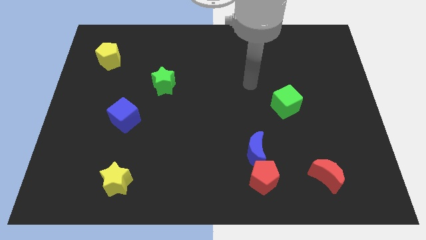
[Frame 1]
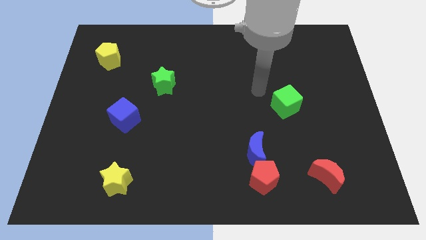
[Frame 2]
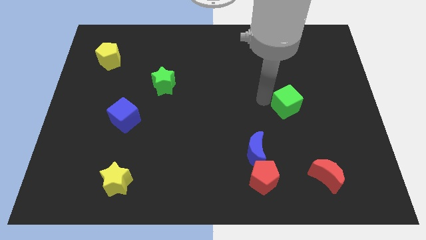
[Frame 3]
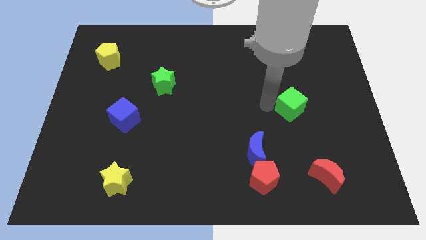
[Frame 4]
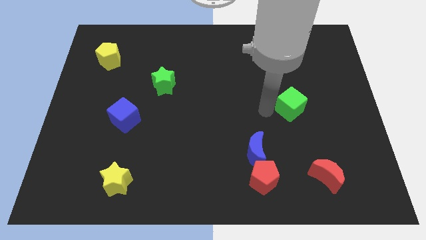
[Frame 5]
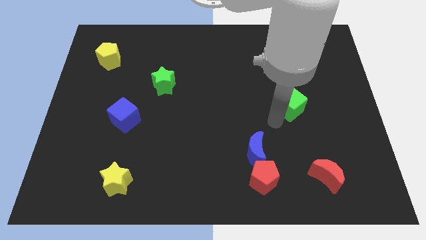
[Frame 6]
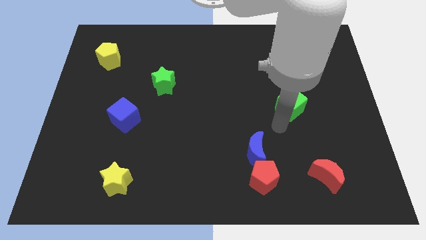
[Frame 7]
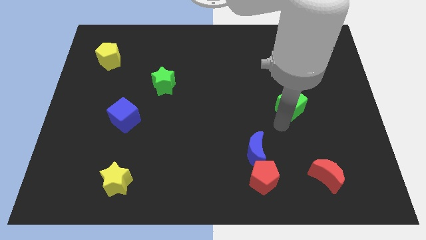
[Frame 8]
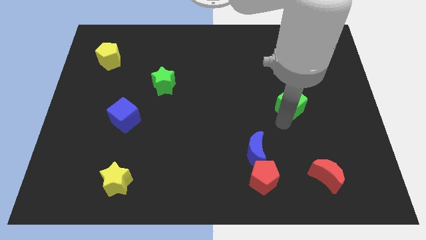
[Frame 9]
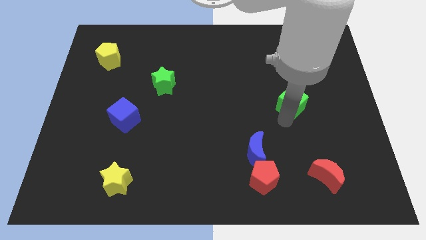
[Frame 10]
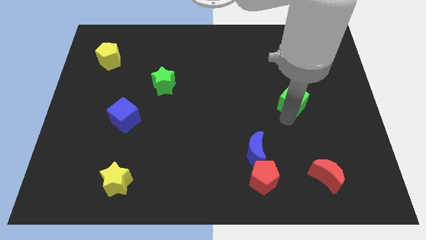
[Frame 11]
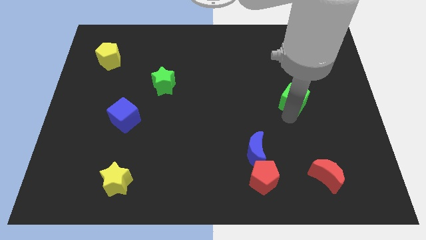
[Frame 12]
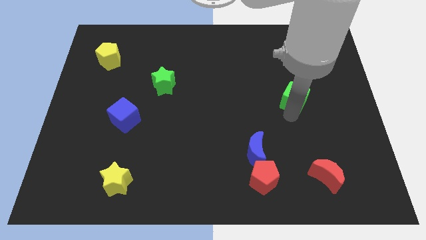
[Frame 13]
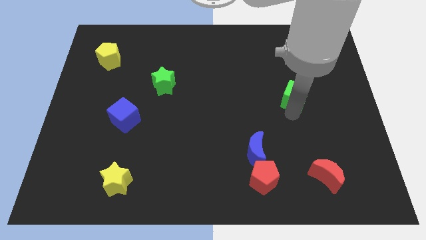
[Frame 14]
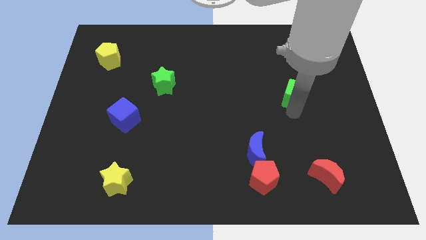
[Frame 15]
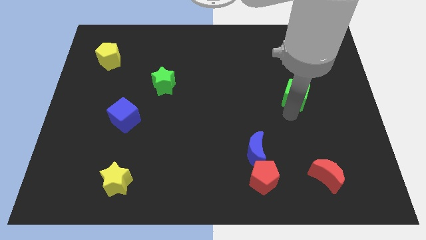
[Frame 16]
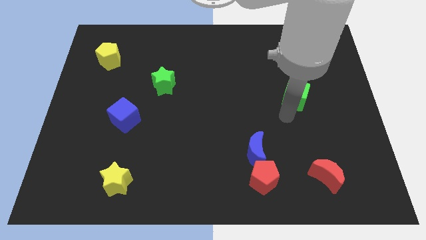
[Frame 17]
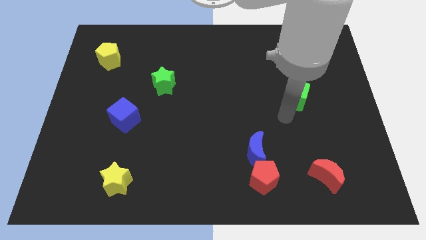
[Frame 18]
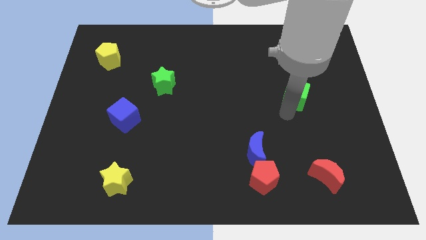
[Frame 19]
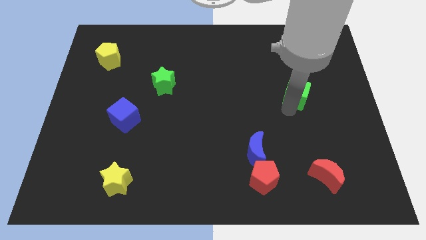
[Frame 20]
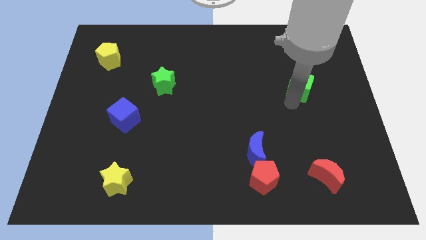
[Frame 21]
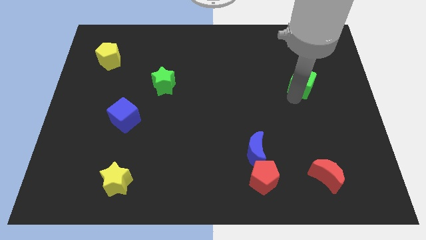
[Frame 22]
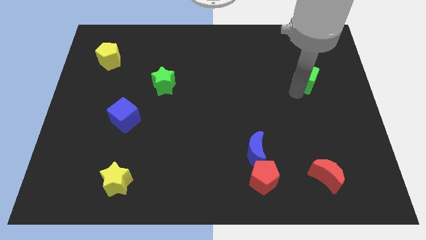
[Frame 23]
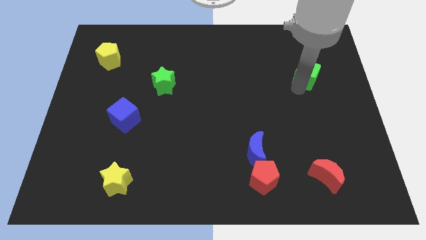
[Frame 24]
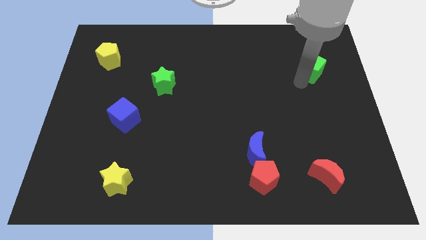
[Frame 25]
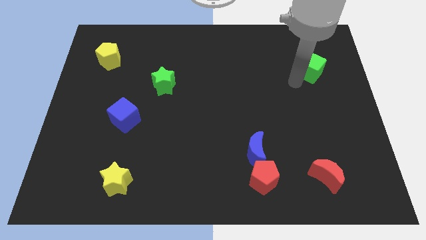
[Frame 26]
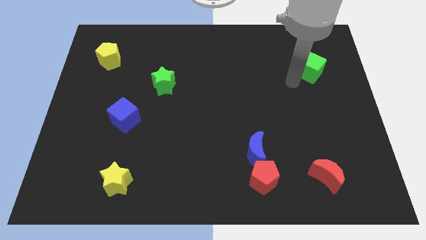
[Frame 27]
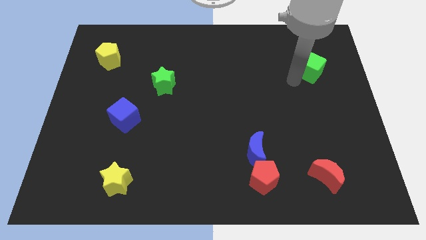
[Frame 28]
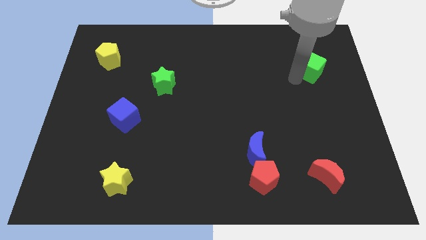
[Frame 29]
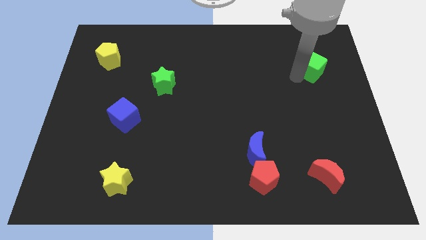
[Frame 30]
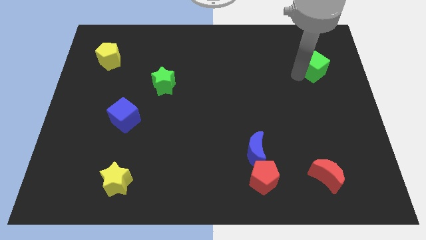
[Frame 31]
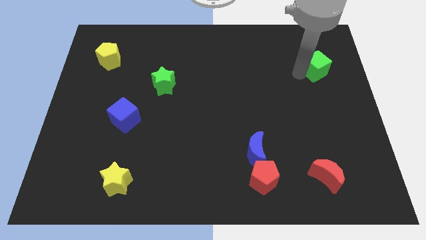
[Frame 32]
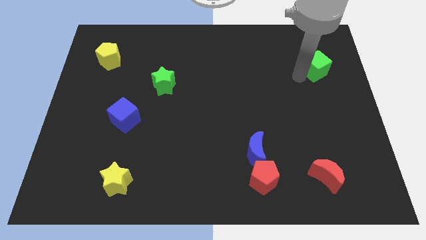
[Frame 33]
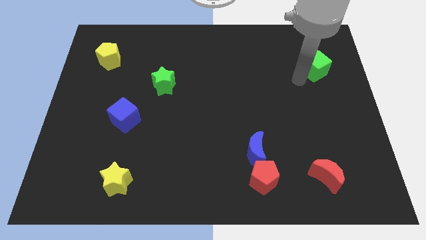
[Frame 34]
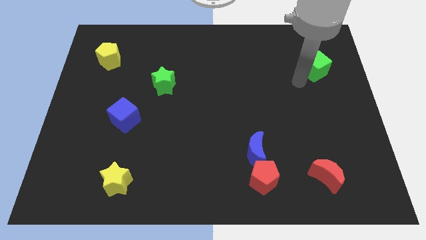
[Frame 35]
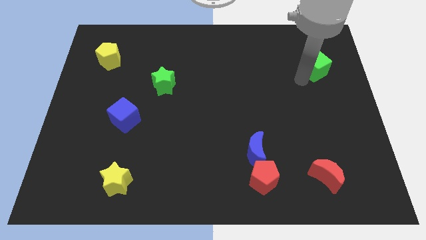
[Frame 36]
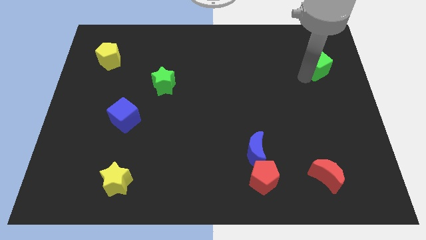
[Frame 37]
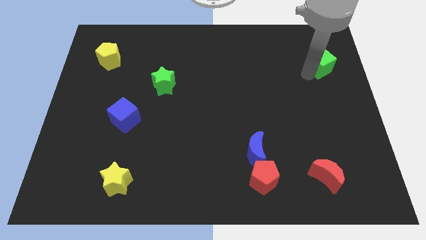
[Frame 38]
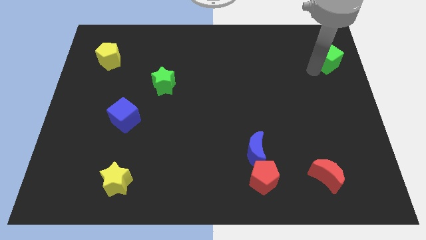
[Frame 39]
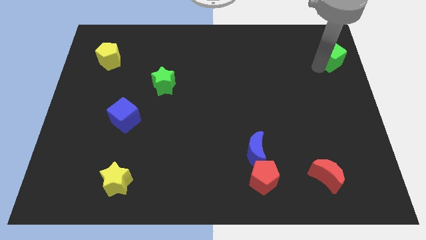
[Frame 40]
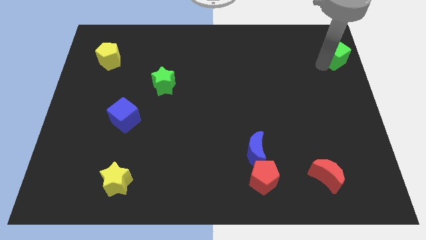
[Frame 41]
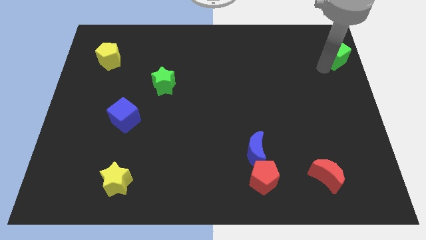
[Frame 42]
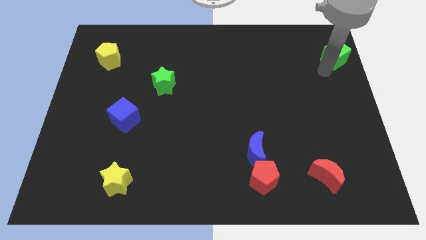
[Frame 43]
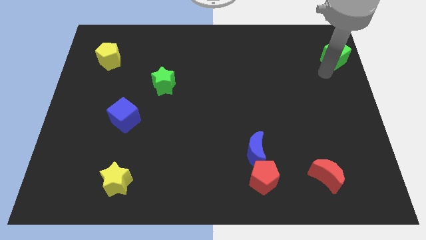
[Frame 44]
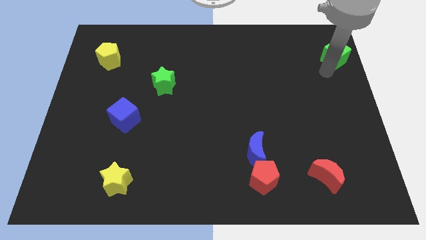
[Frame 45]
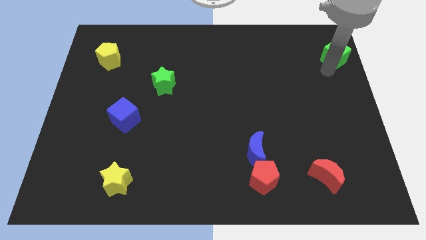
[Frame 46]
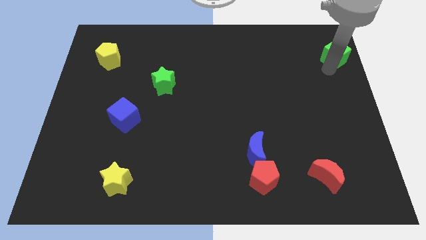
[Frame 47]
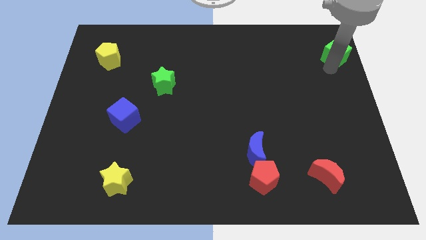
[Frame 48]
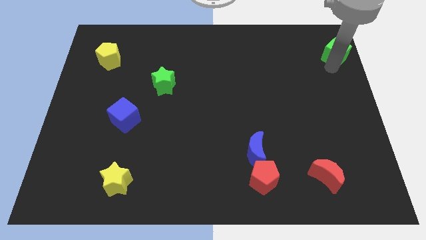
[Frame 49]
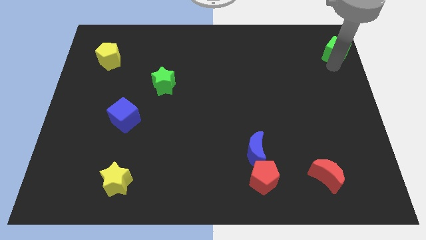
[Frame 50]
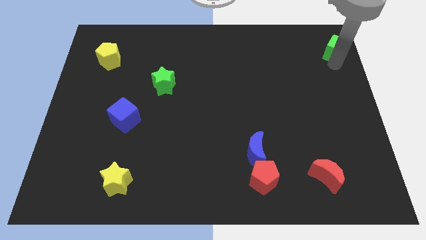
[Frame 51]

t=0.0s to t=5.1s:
slide the green cube to the top right corner

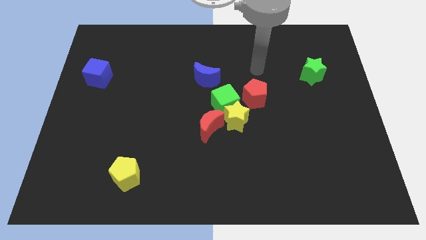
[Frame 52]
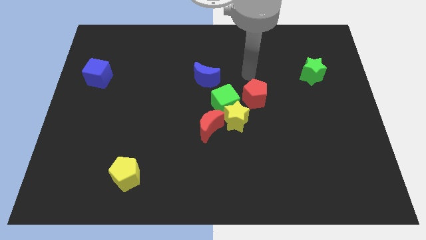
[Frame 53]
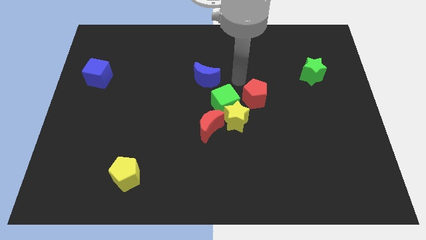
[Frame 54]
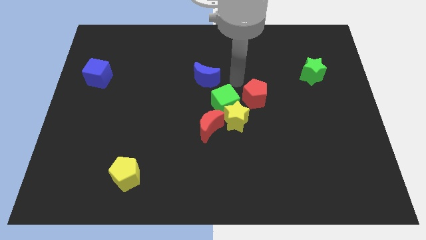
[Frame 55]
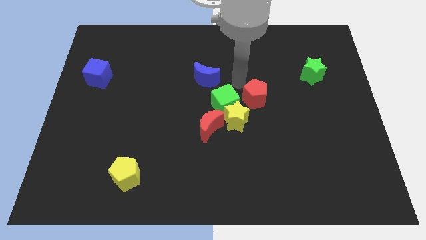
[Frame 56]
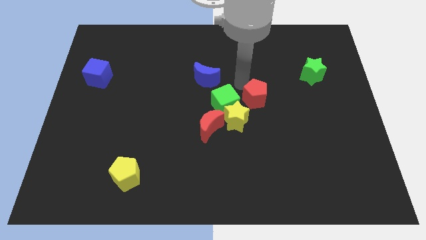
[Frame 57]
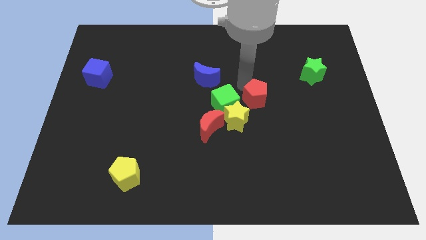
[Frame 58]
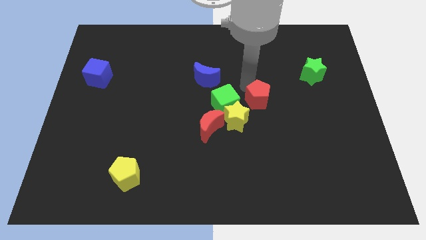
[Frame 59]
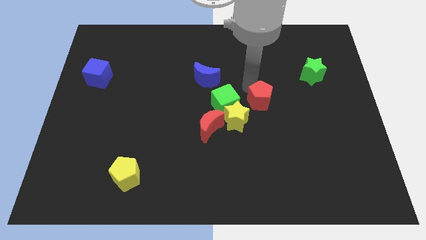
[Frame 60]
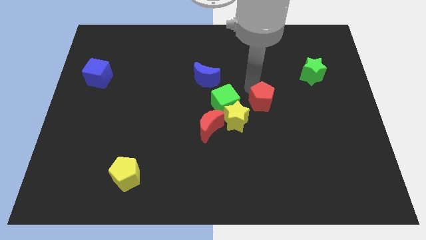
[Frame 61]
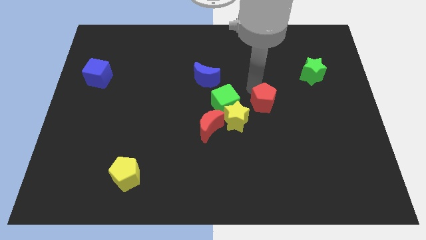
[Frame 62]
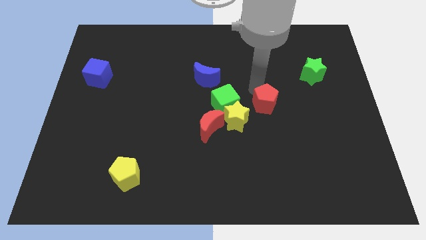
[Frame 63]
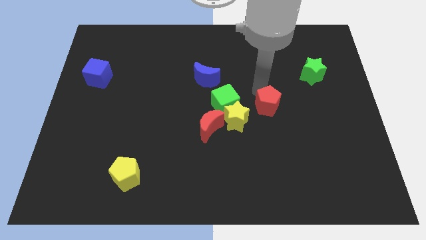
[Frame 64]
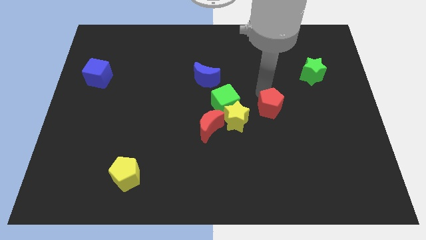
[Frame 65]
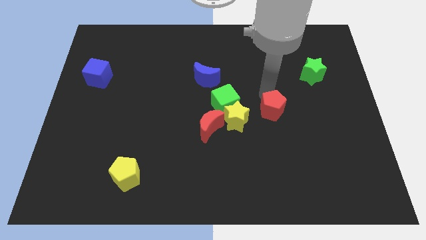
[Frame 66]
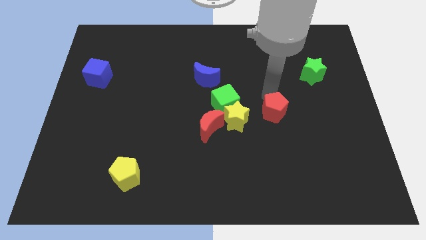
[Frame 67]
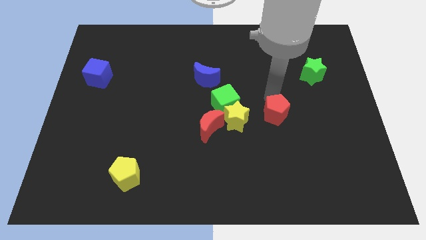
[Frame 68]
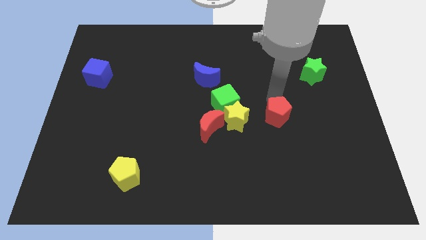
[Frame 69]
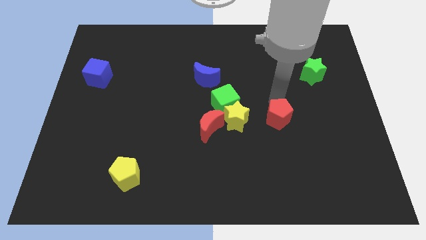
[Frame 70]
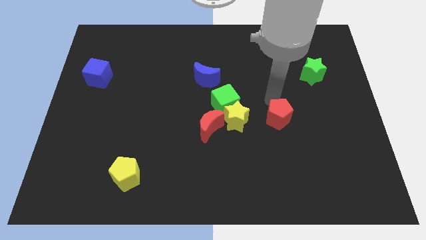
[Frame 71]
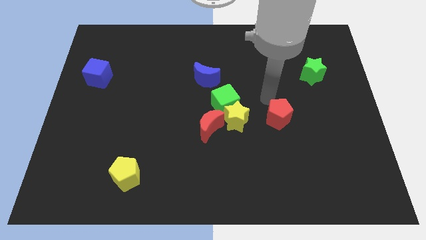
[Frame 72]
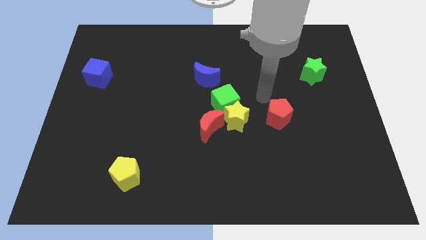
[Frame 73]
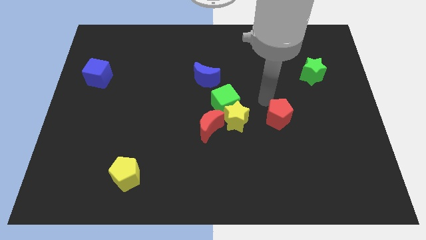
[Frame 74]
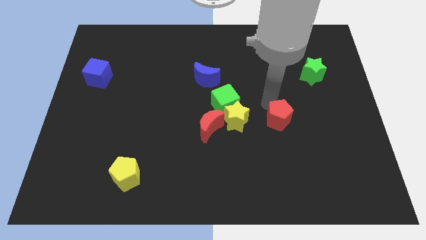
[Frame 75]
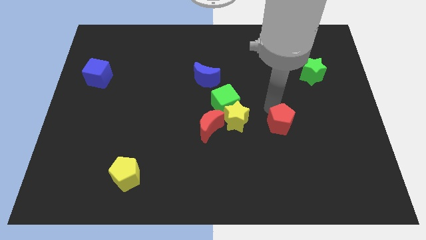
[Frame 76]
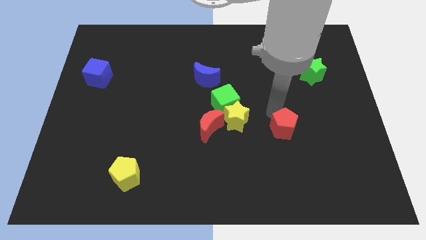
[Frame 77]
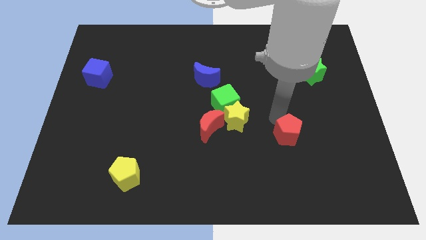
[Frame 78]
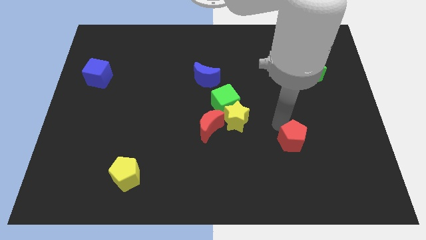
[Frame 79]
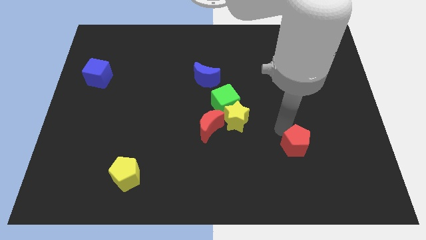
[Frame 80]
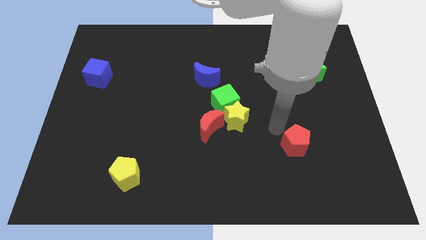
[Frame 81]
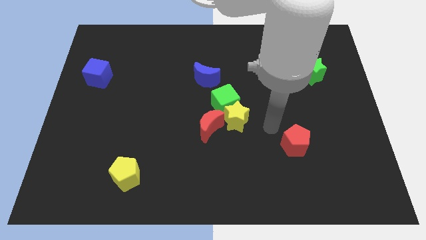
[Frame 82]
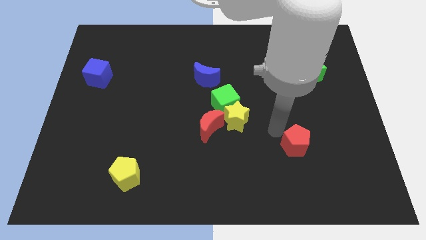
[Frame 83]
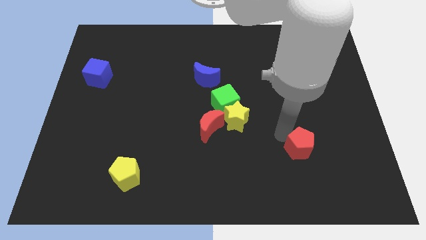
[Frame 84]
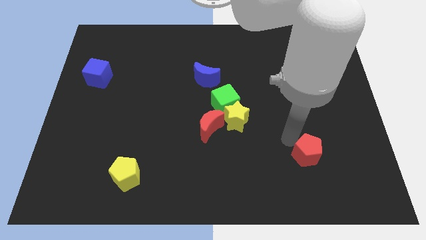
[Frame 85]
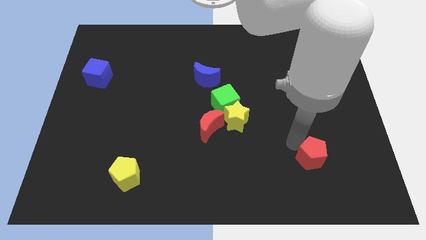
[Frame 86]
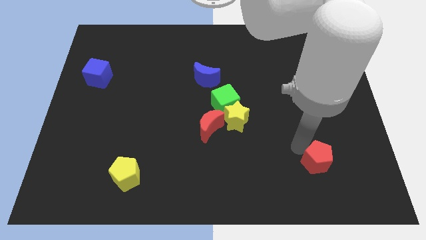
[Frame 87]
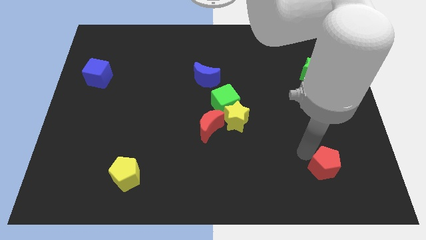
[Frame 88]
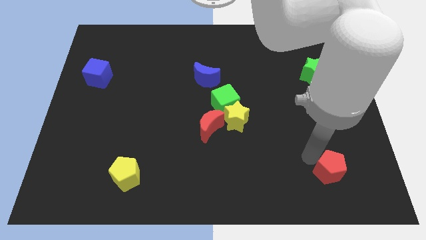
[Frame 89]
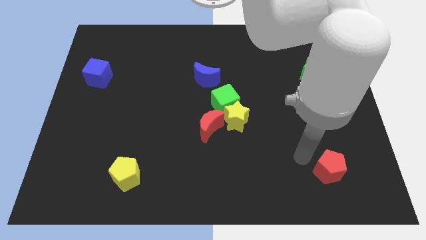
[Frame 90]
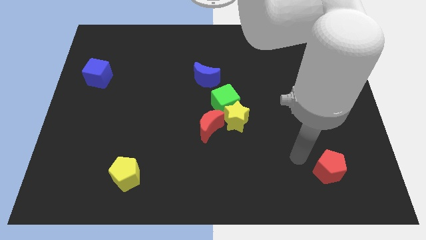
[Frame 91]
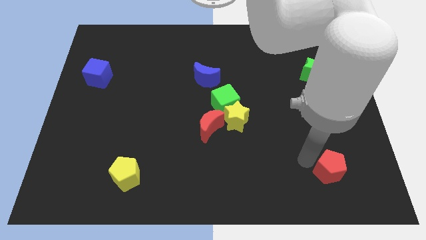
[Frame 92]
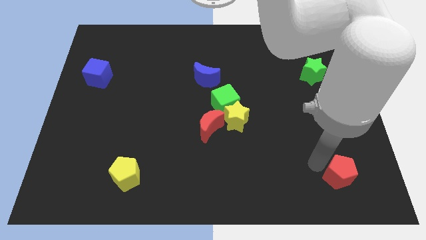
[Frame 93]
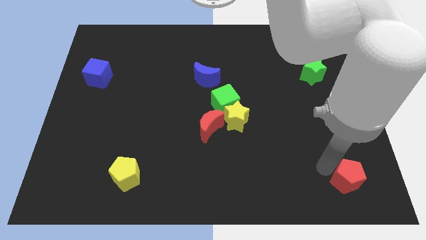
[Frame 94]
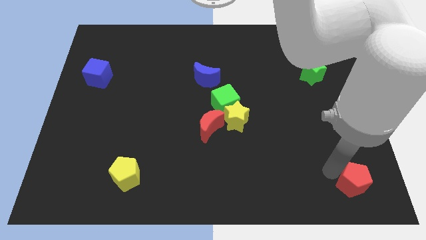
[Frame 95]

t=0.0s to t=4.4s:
slide the red pentagon to the bottom right corner
